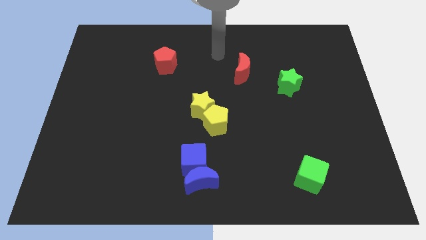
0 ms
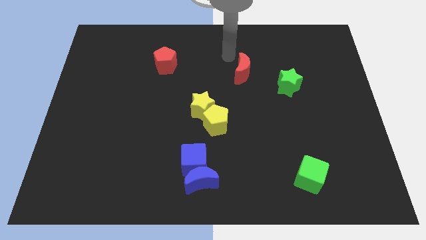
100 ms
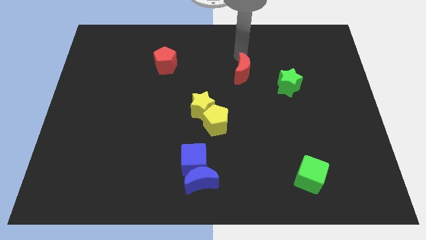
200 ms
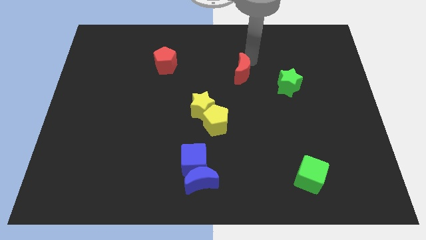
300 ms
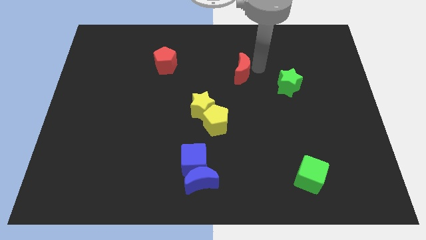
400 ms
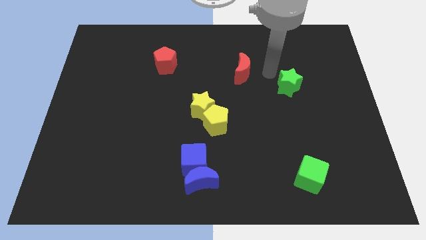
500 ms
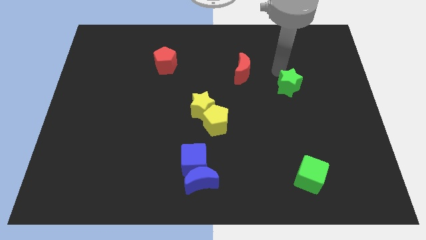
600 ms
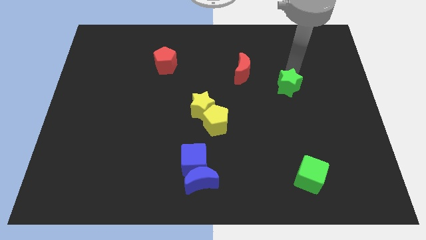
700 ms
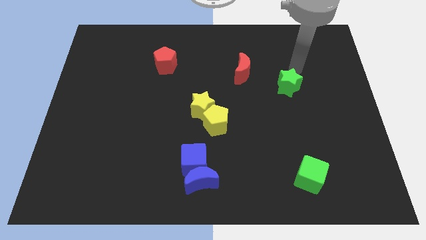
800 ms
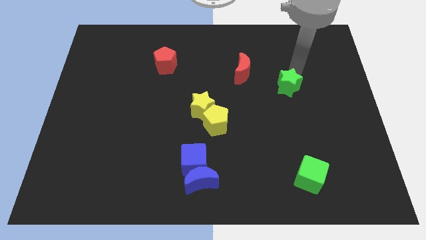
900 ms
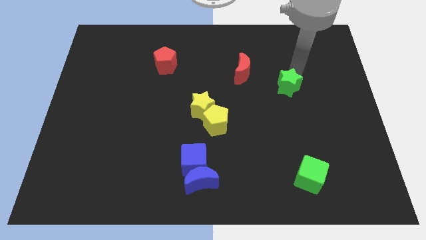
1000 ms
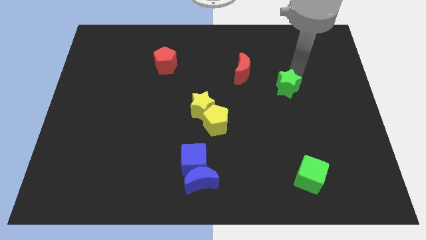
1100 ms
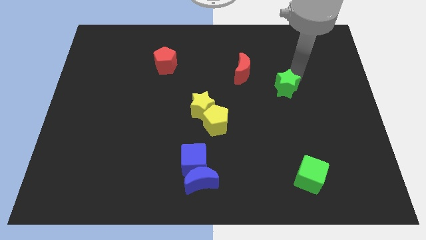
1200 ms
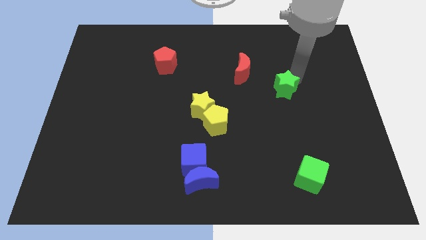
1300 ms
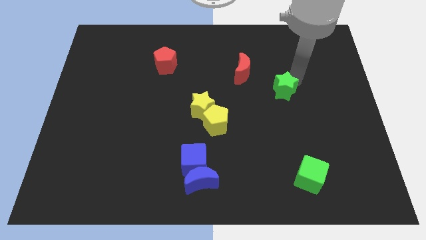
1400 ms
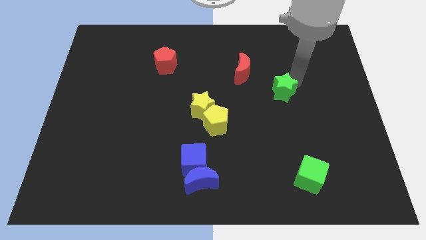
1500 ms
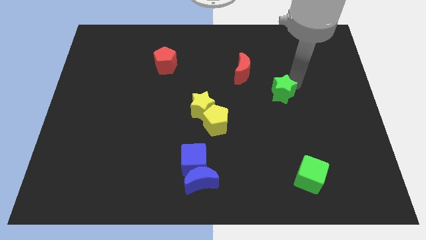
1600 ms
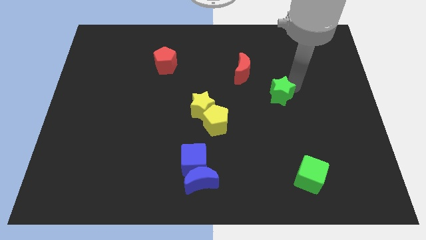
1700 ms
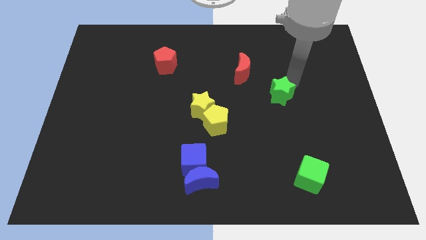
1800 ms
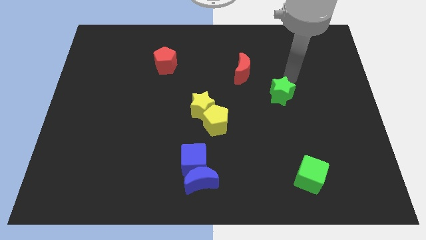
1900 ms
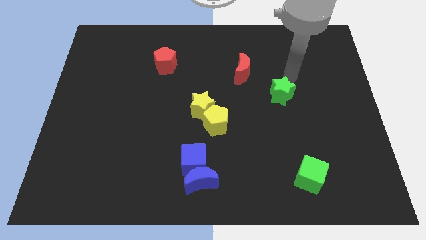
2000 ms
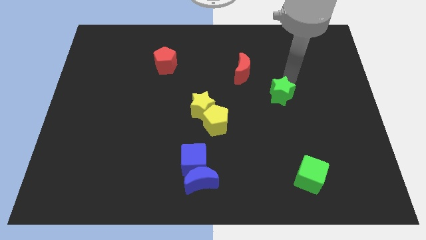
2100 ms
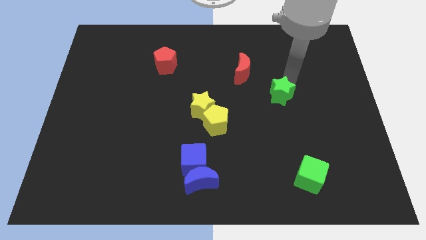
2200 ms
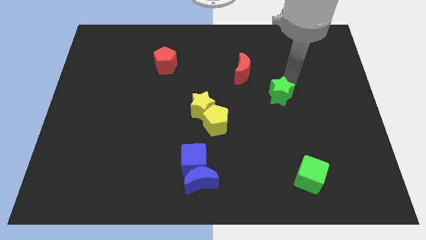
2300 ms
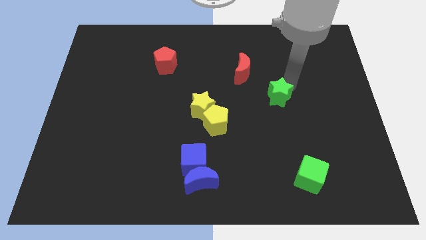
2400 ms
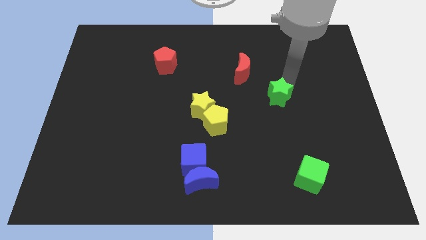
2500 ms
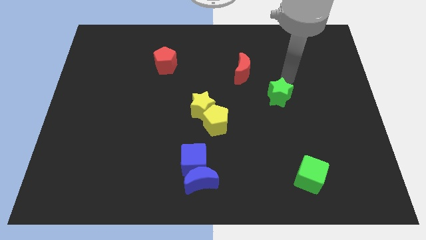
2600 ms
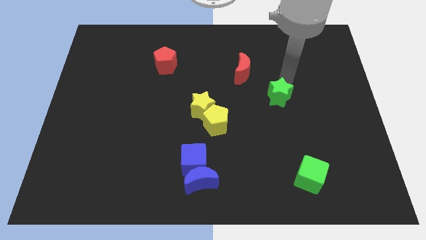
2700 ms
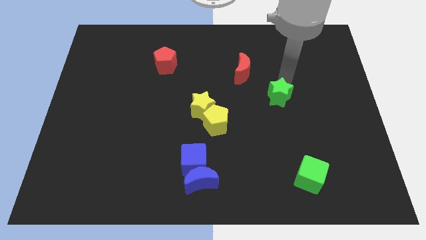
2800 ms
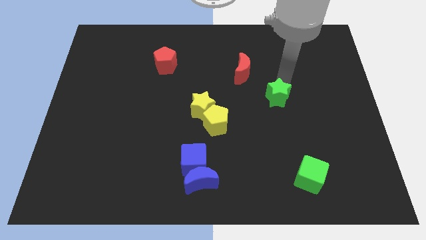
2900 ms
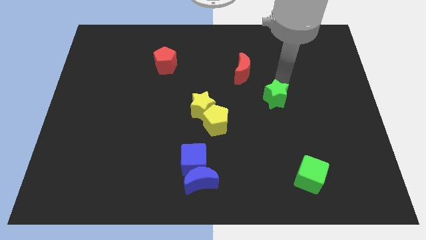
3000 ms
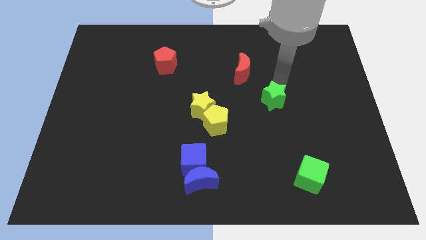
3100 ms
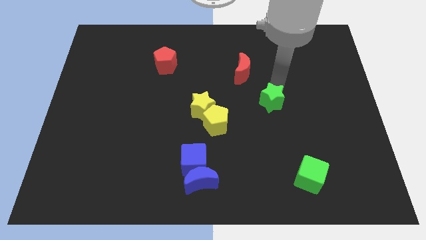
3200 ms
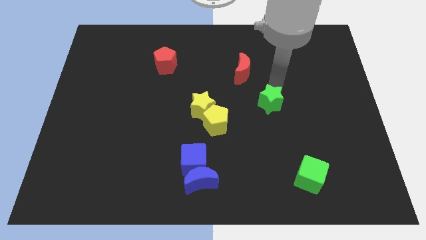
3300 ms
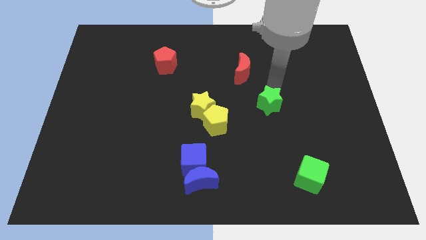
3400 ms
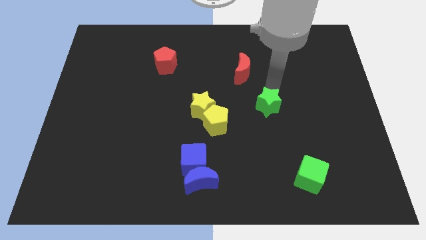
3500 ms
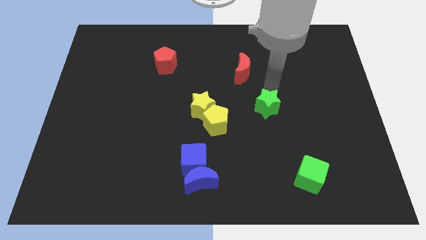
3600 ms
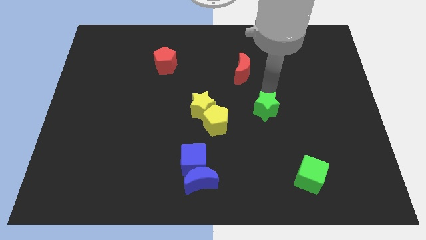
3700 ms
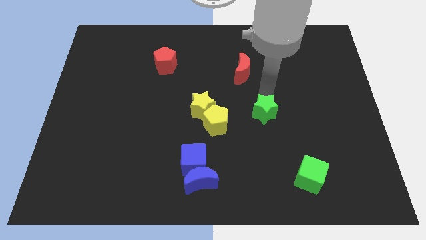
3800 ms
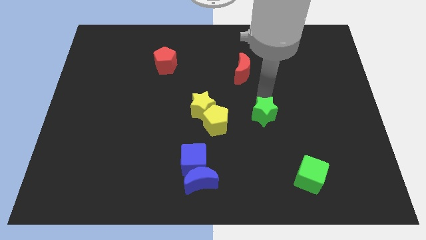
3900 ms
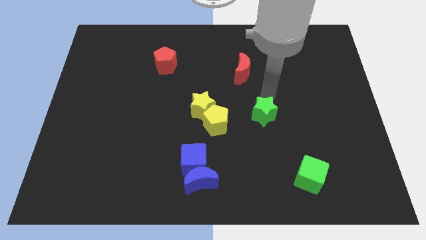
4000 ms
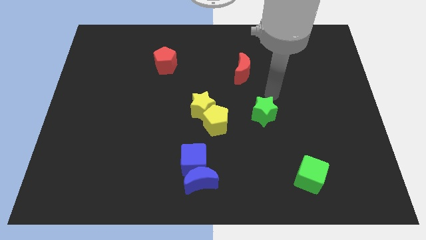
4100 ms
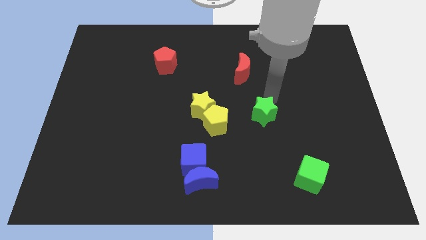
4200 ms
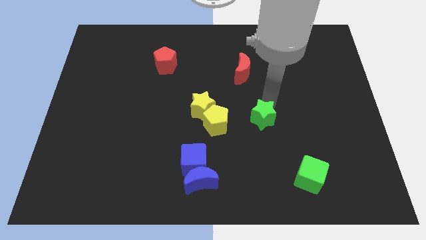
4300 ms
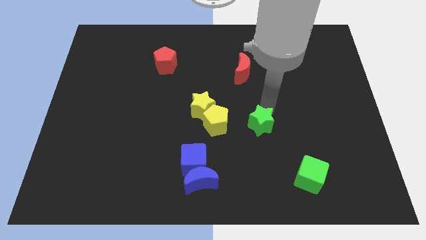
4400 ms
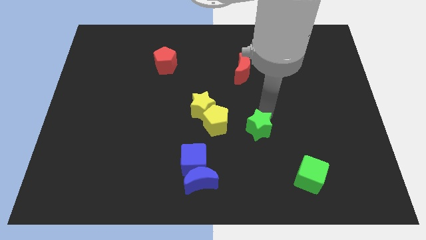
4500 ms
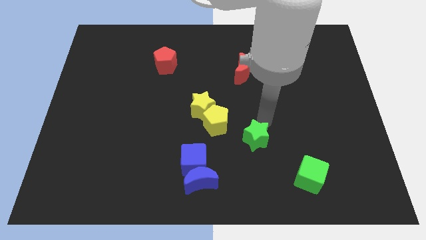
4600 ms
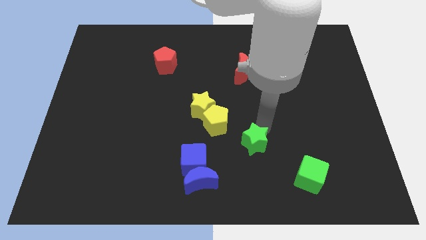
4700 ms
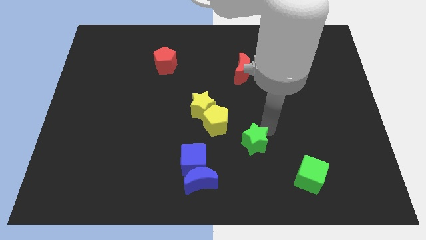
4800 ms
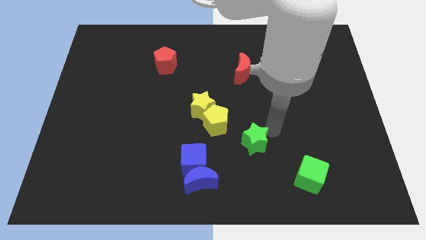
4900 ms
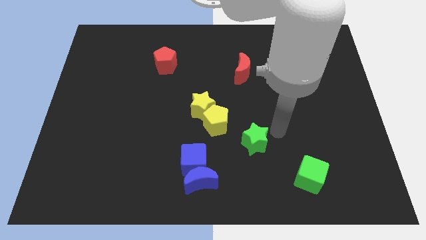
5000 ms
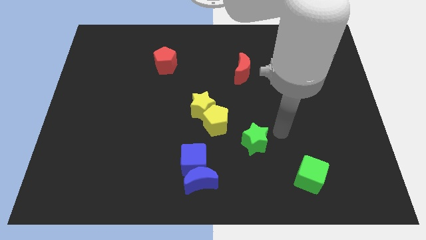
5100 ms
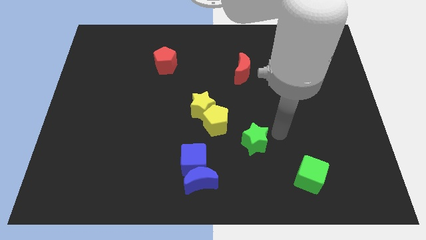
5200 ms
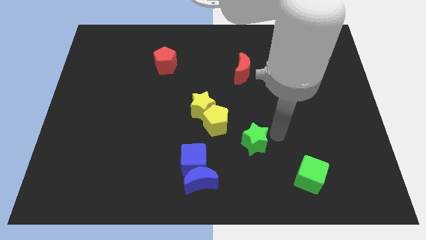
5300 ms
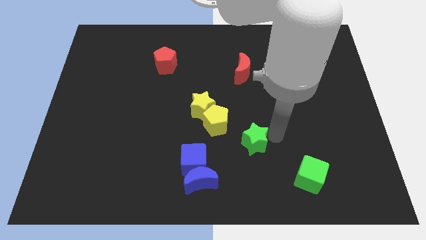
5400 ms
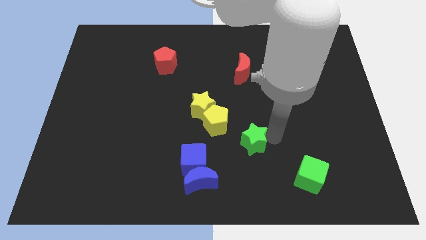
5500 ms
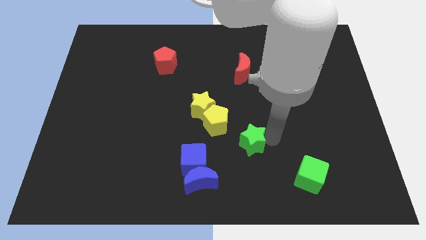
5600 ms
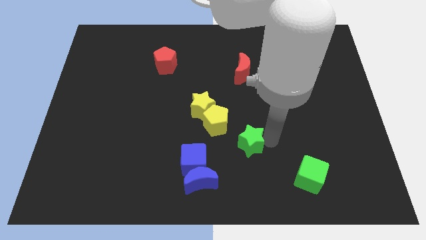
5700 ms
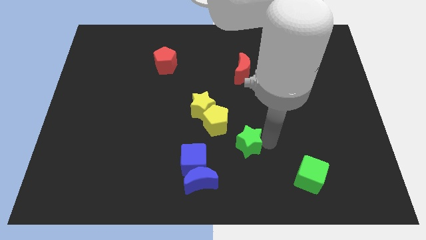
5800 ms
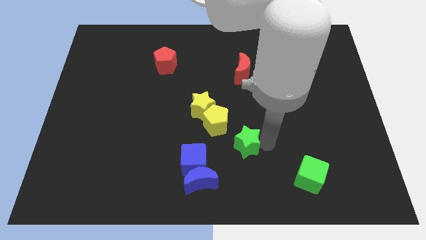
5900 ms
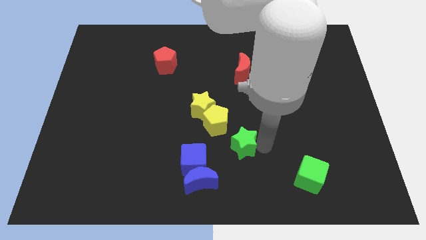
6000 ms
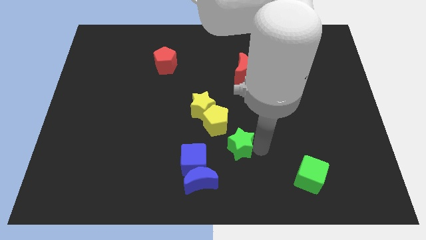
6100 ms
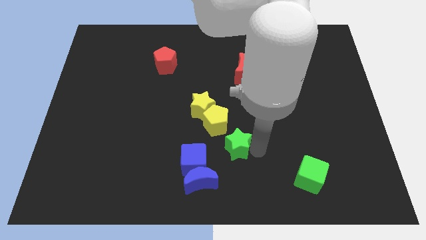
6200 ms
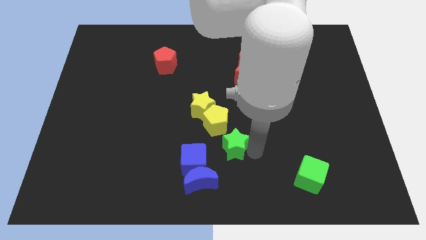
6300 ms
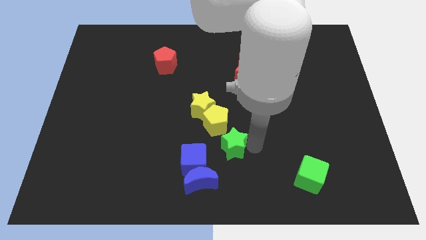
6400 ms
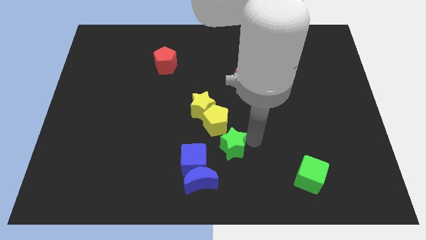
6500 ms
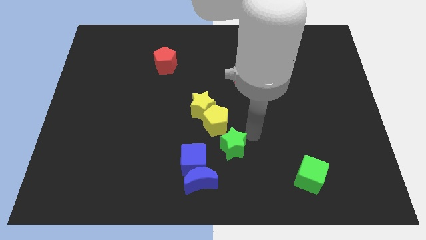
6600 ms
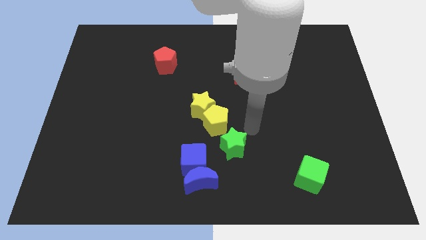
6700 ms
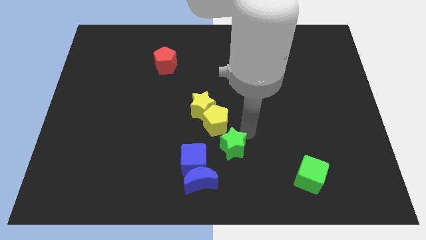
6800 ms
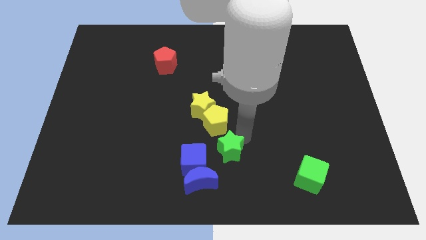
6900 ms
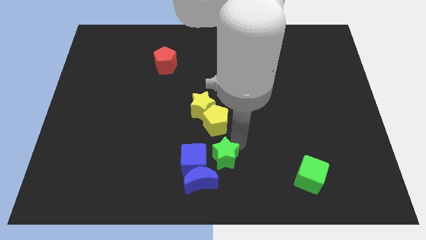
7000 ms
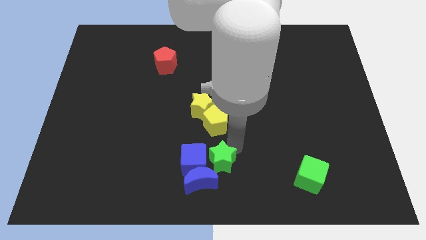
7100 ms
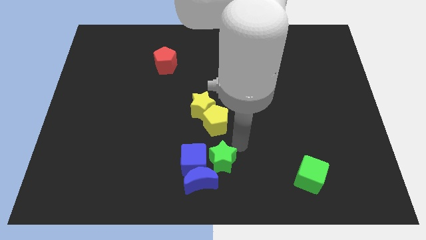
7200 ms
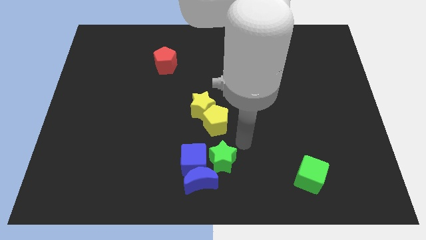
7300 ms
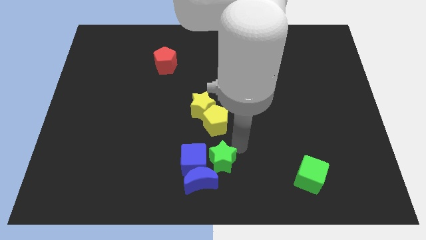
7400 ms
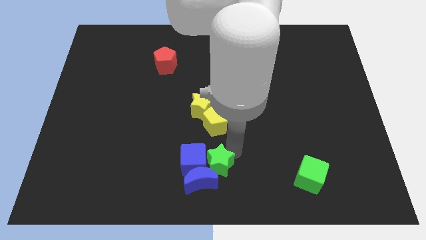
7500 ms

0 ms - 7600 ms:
move the green star to the blue moon
